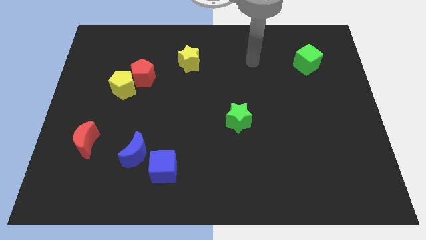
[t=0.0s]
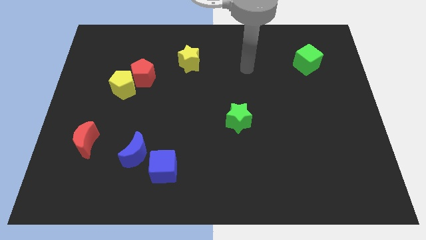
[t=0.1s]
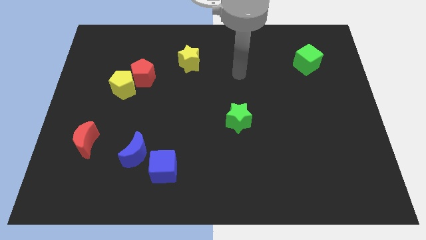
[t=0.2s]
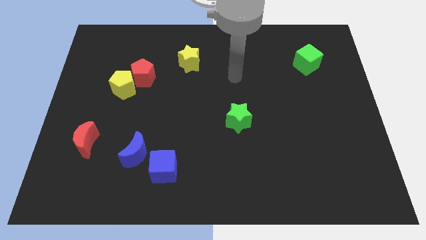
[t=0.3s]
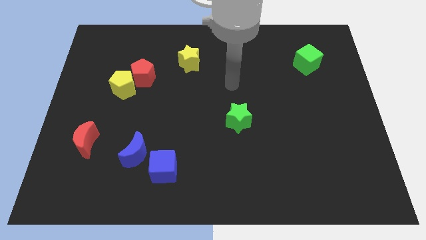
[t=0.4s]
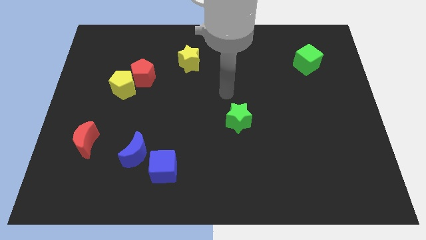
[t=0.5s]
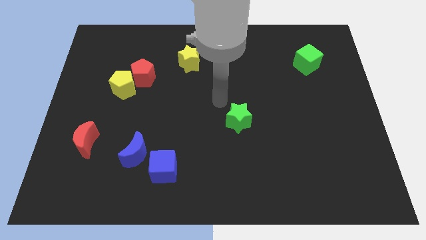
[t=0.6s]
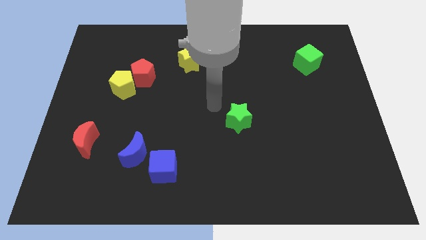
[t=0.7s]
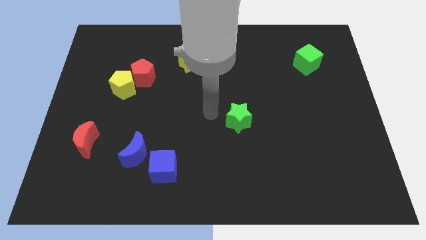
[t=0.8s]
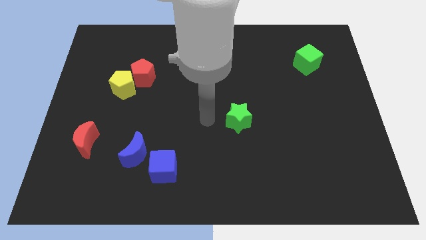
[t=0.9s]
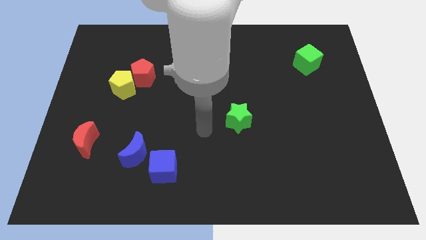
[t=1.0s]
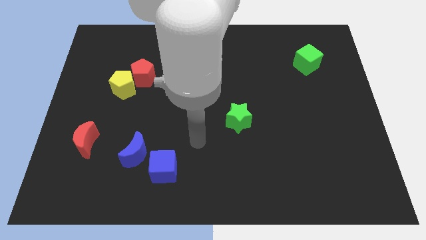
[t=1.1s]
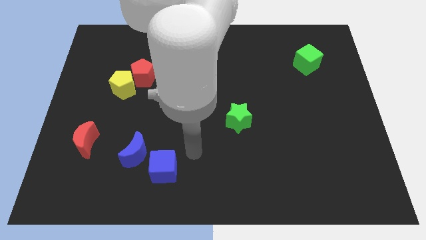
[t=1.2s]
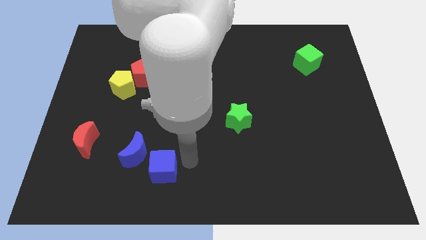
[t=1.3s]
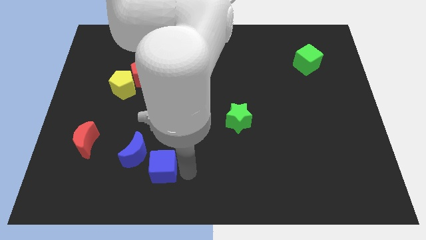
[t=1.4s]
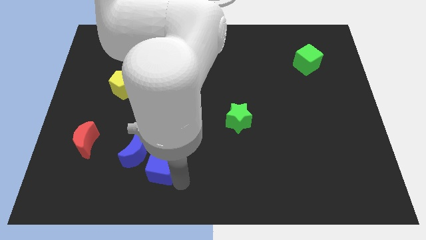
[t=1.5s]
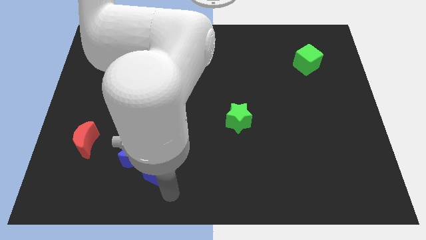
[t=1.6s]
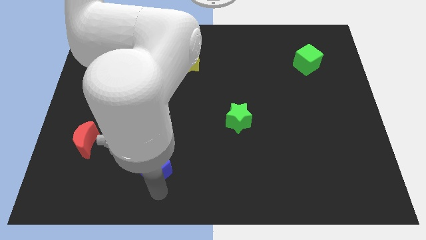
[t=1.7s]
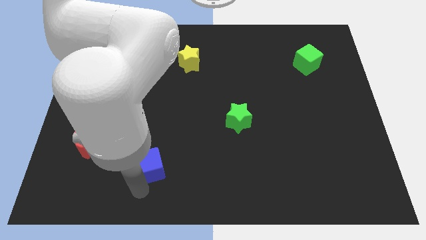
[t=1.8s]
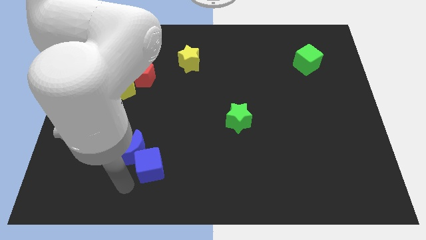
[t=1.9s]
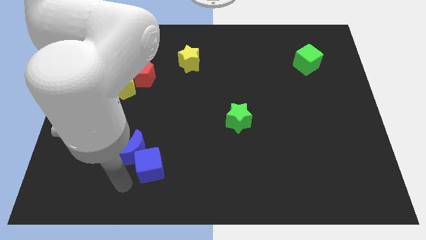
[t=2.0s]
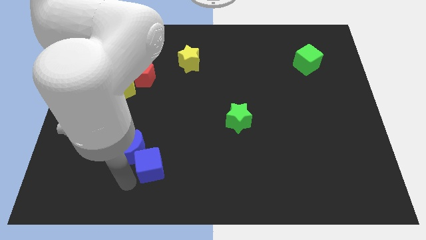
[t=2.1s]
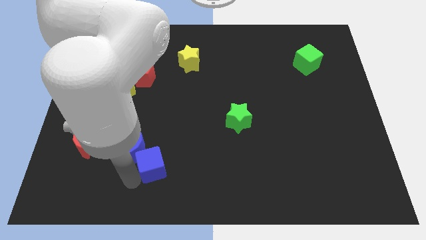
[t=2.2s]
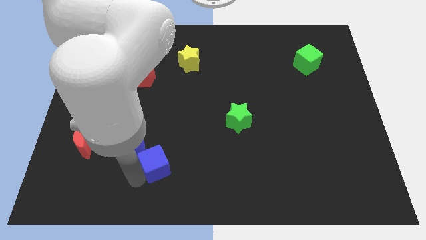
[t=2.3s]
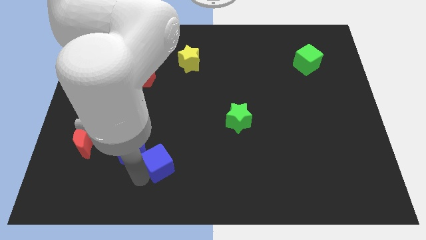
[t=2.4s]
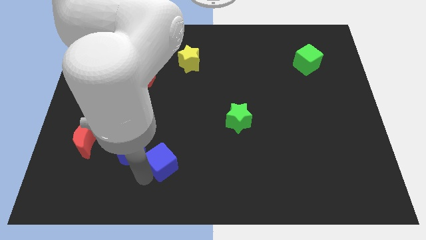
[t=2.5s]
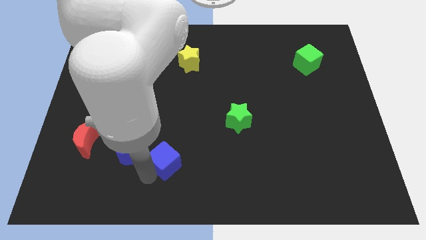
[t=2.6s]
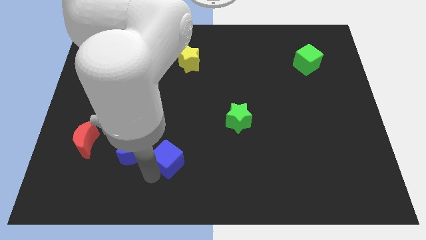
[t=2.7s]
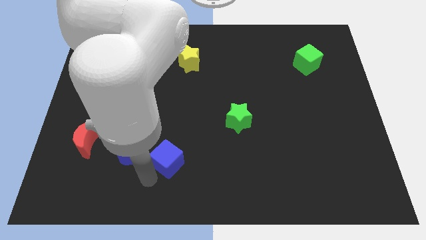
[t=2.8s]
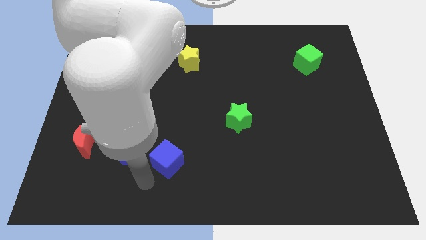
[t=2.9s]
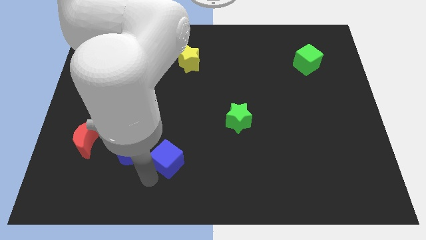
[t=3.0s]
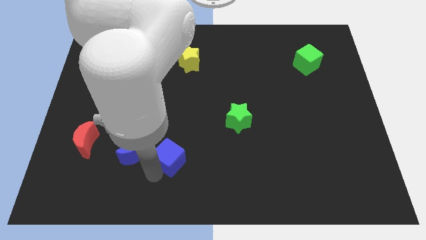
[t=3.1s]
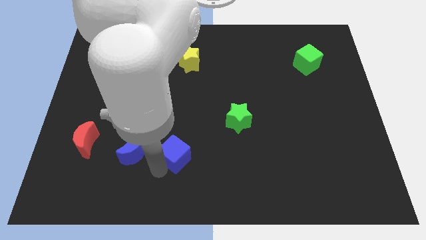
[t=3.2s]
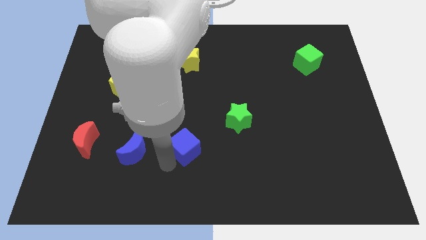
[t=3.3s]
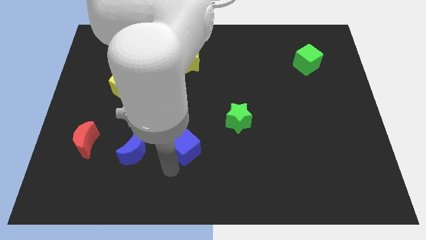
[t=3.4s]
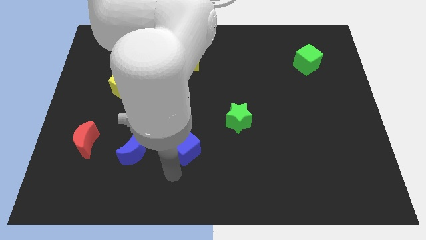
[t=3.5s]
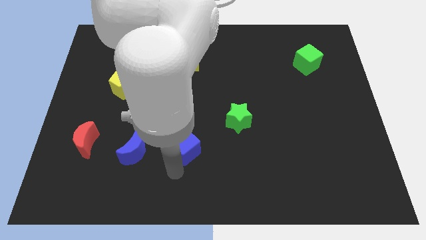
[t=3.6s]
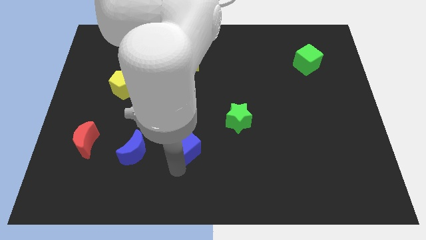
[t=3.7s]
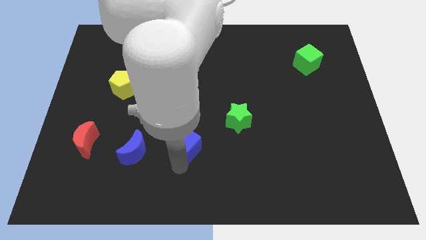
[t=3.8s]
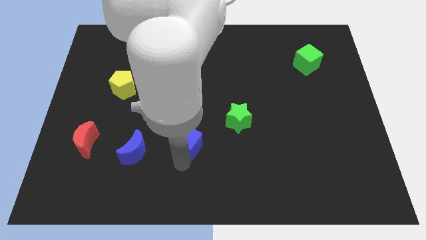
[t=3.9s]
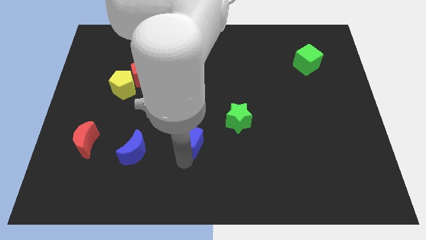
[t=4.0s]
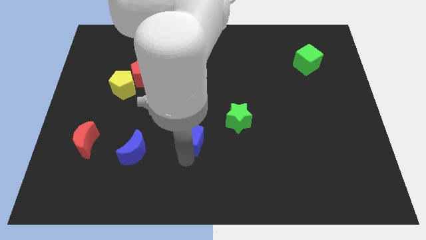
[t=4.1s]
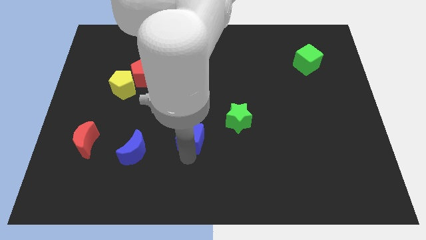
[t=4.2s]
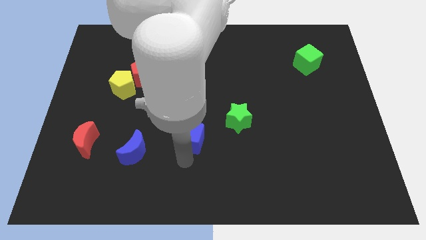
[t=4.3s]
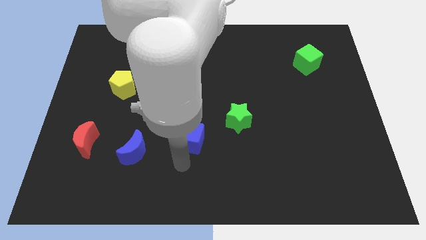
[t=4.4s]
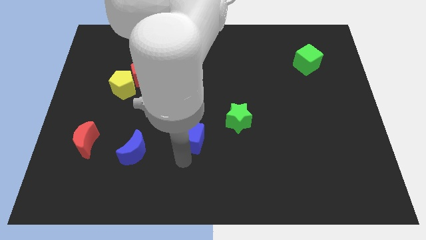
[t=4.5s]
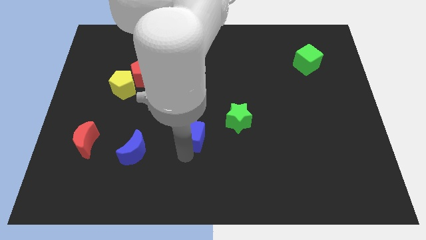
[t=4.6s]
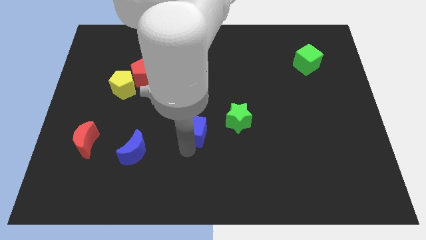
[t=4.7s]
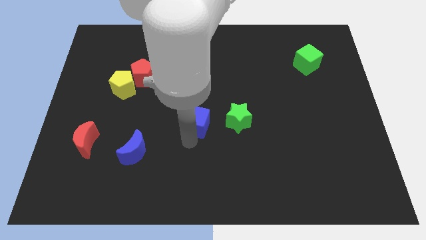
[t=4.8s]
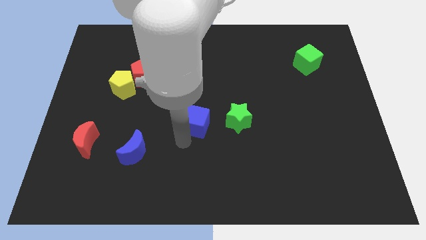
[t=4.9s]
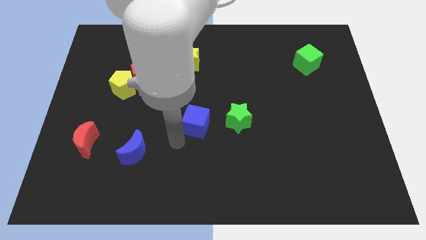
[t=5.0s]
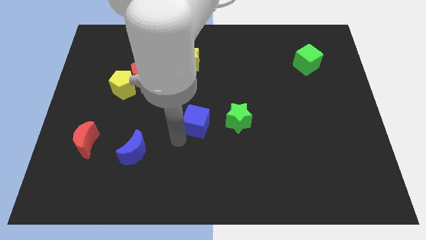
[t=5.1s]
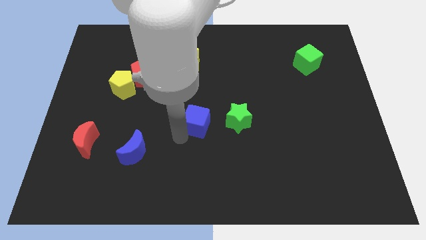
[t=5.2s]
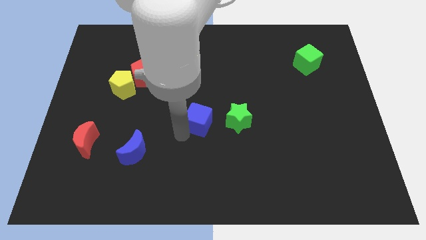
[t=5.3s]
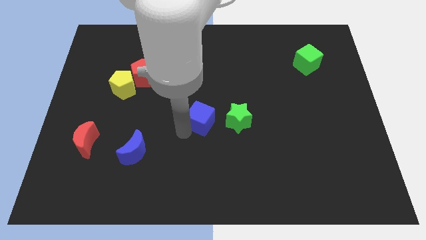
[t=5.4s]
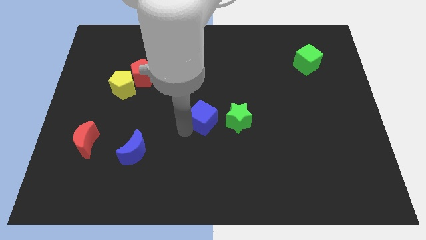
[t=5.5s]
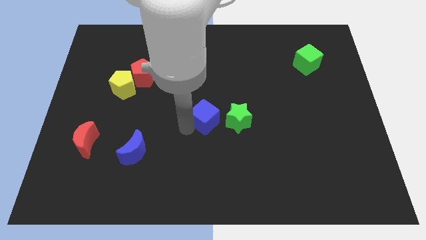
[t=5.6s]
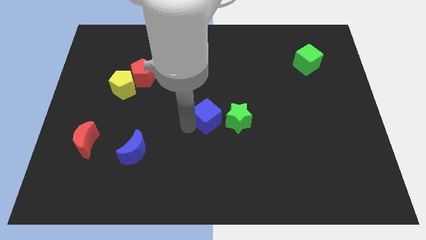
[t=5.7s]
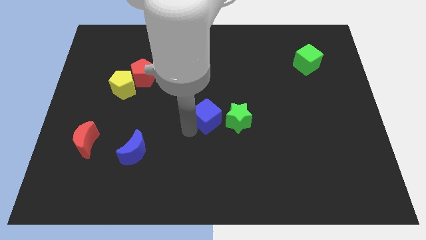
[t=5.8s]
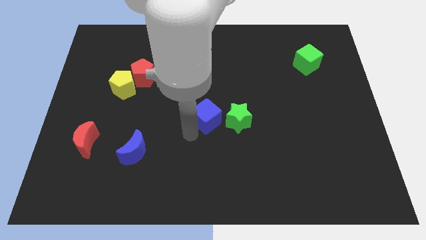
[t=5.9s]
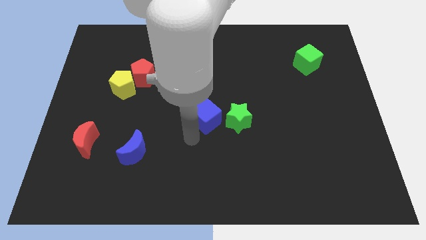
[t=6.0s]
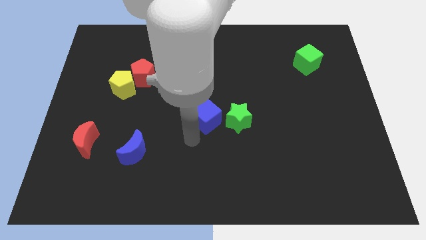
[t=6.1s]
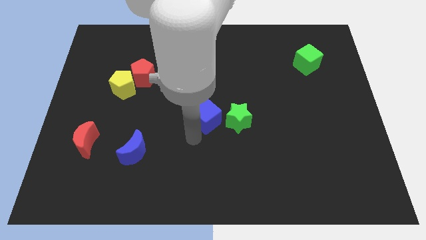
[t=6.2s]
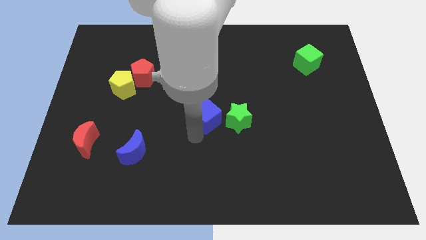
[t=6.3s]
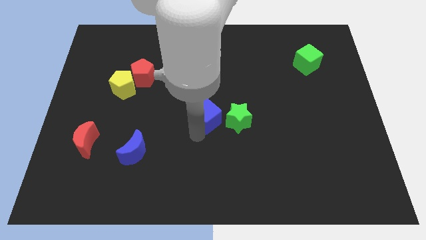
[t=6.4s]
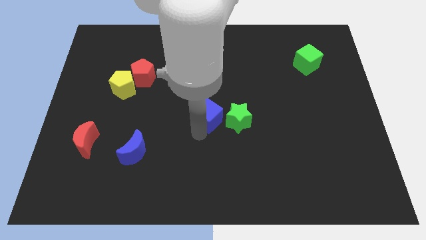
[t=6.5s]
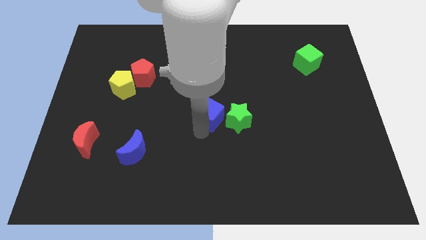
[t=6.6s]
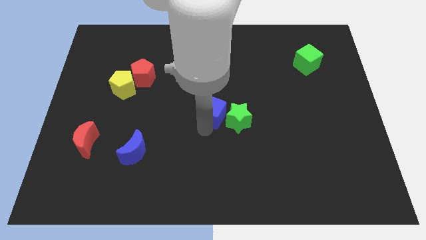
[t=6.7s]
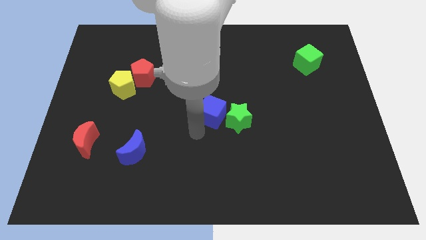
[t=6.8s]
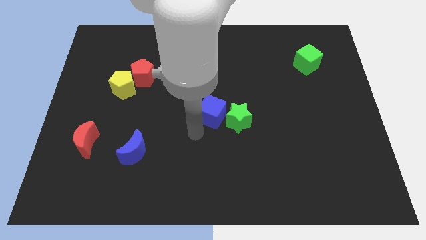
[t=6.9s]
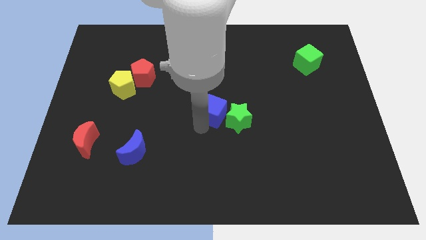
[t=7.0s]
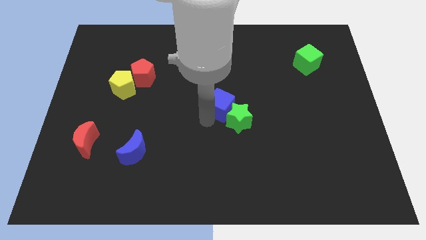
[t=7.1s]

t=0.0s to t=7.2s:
push the blue cube to the top side of the green star

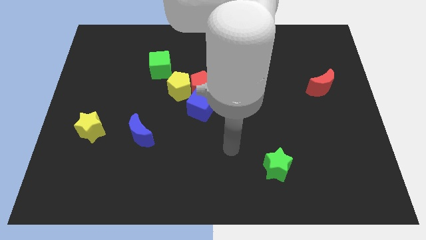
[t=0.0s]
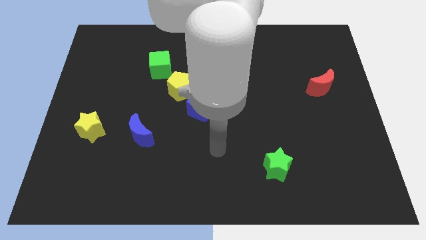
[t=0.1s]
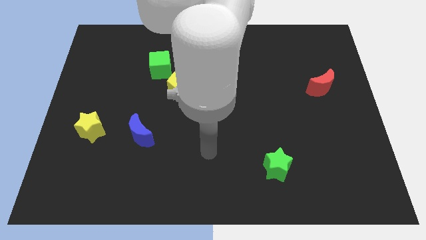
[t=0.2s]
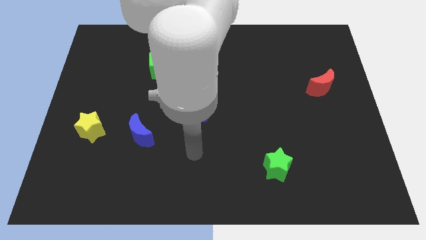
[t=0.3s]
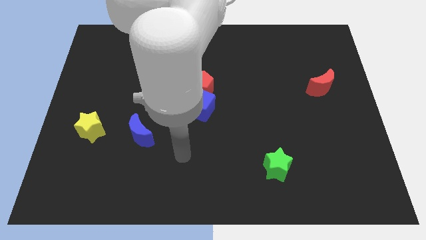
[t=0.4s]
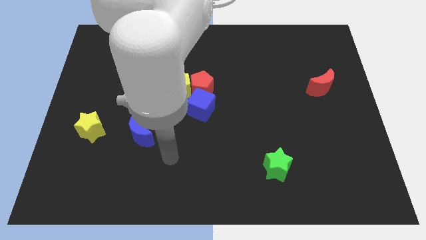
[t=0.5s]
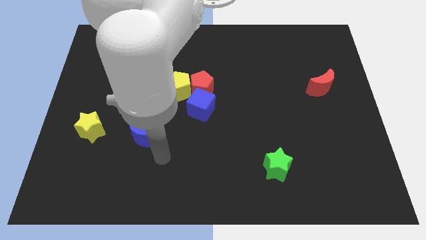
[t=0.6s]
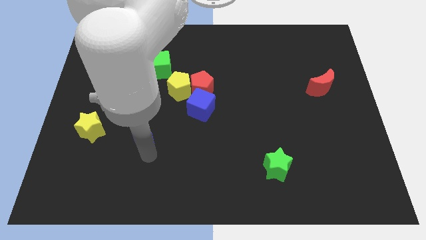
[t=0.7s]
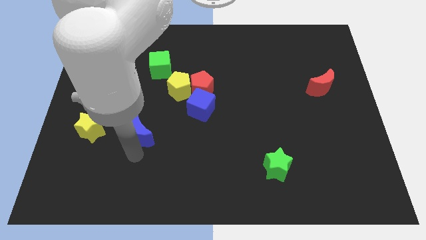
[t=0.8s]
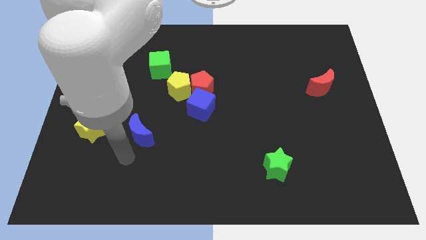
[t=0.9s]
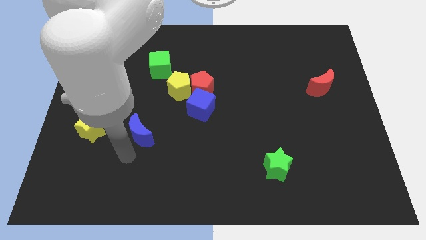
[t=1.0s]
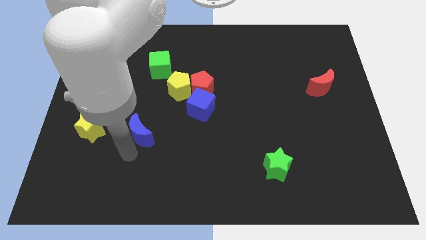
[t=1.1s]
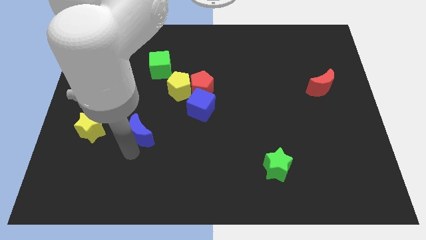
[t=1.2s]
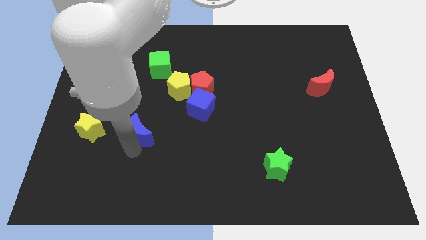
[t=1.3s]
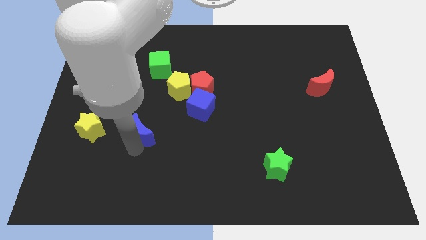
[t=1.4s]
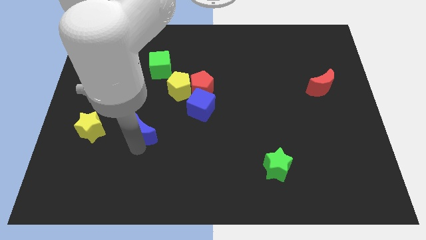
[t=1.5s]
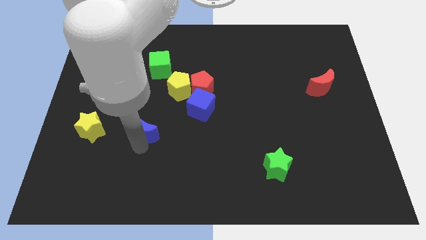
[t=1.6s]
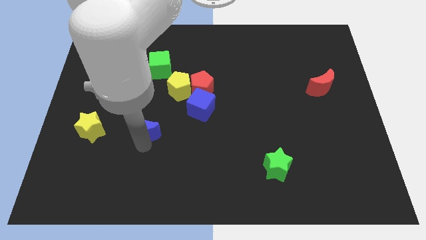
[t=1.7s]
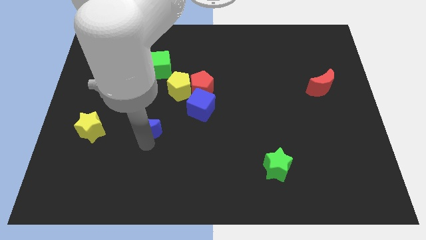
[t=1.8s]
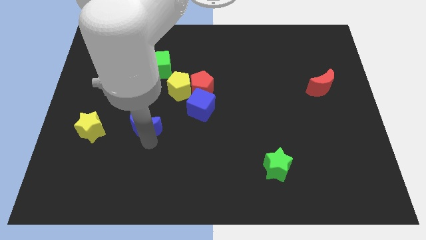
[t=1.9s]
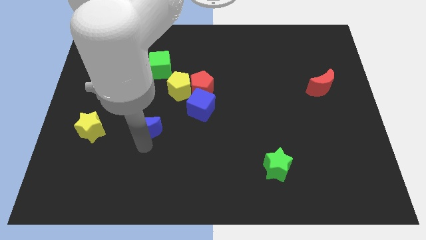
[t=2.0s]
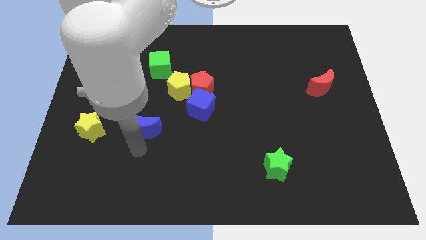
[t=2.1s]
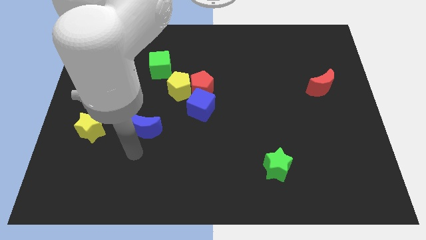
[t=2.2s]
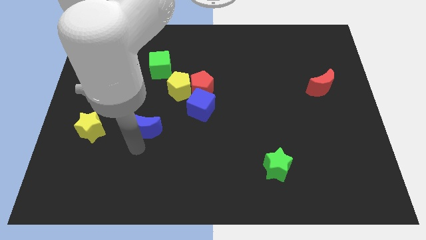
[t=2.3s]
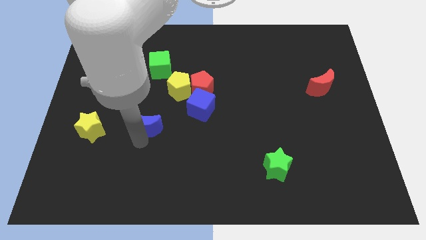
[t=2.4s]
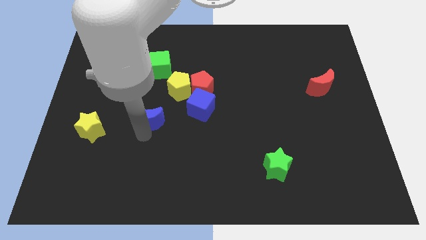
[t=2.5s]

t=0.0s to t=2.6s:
slide the blue moon just left of the blue cube
